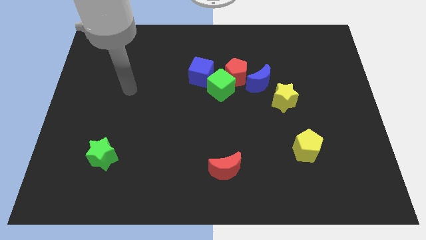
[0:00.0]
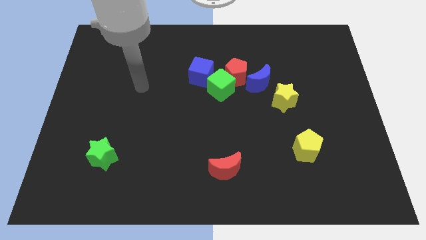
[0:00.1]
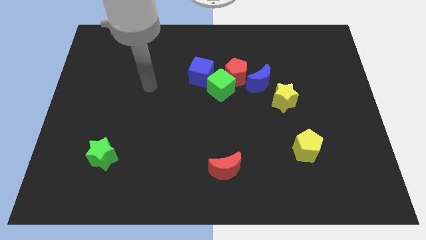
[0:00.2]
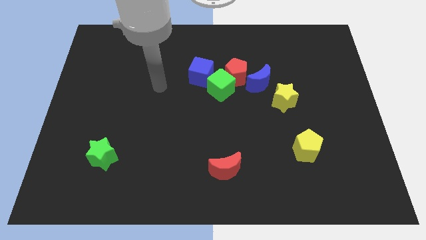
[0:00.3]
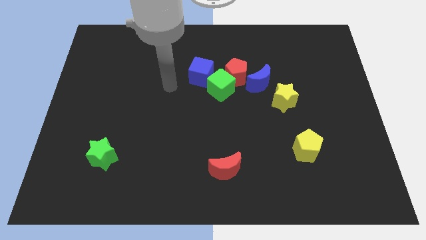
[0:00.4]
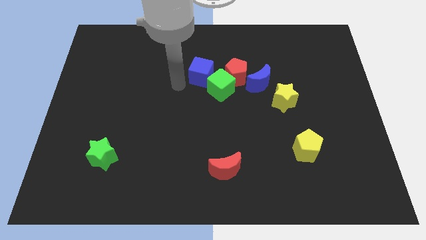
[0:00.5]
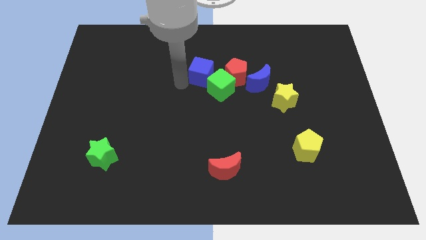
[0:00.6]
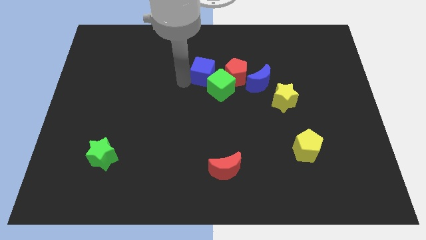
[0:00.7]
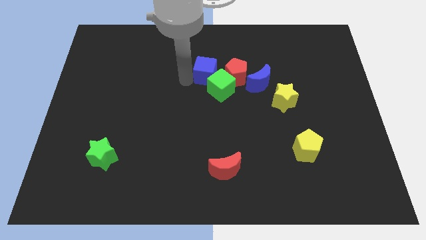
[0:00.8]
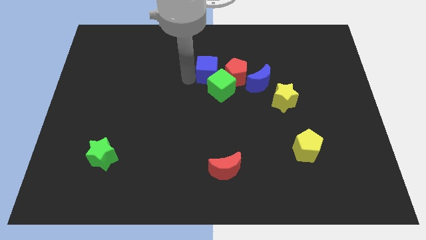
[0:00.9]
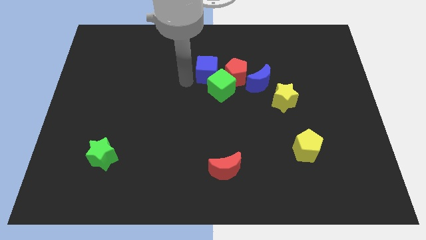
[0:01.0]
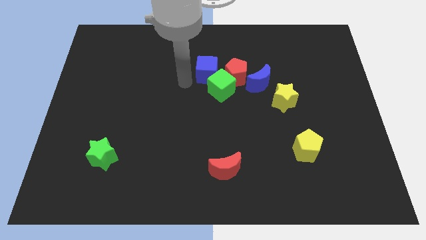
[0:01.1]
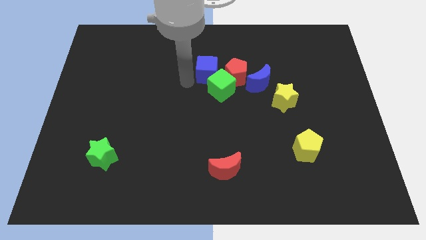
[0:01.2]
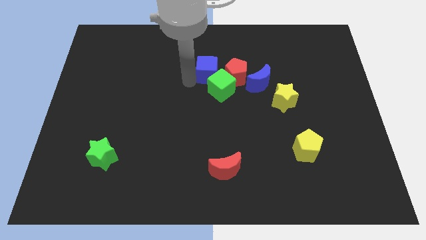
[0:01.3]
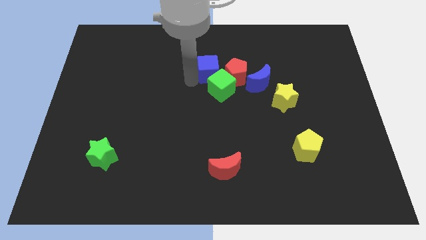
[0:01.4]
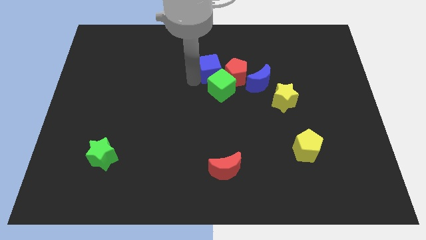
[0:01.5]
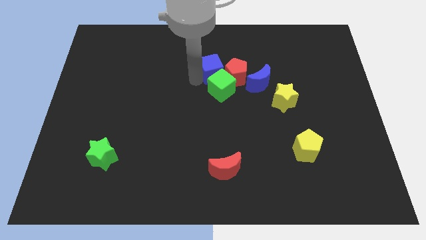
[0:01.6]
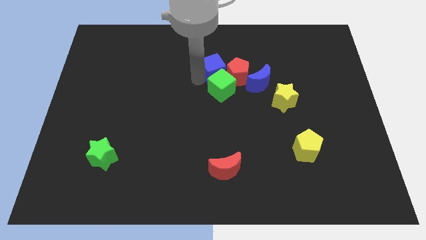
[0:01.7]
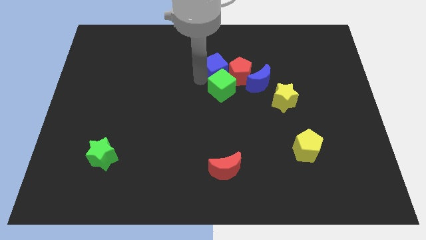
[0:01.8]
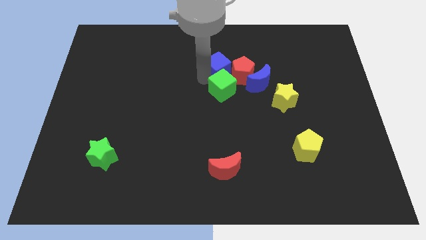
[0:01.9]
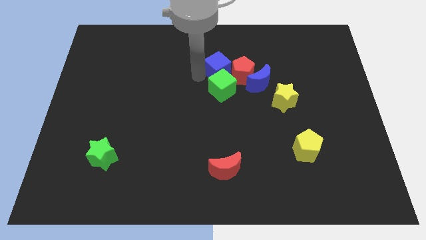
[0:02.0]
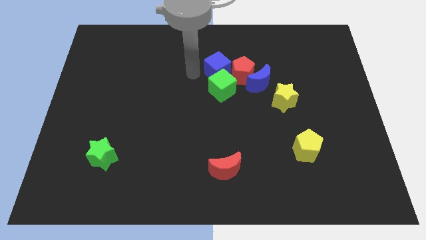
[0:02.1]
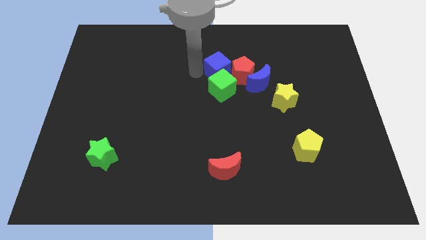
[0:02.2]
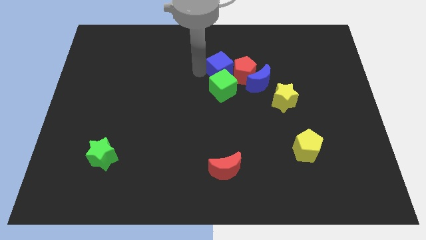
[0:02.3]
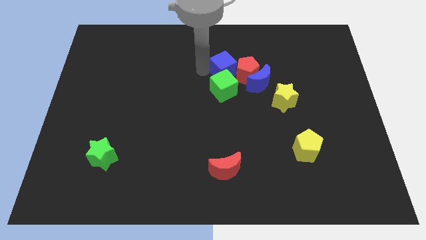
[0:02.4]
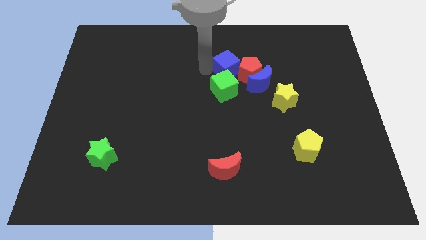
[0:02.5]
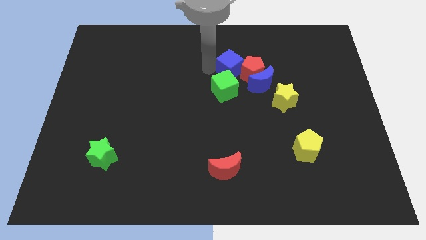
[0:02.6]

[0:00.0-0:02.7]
push the blue cube to the right a bit

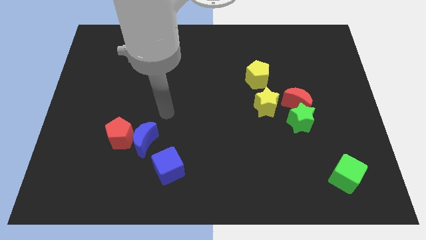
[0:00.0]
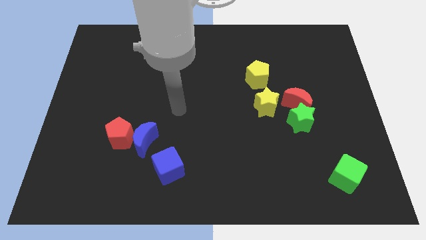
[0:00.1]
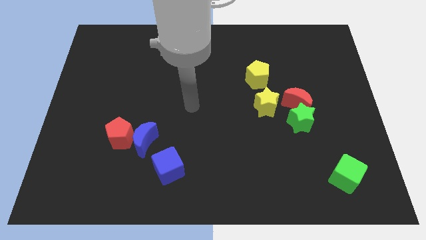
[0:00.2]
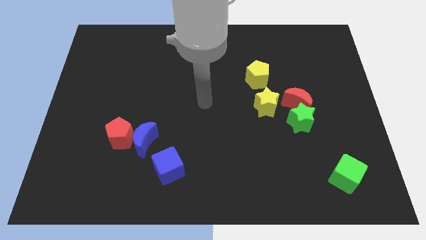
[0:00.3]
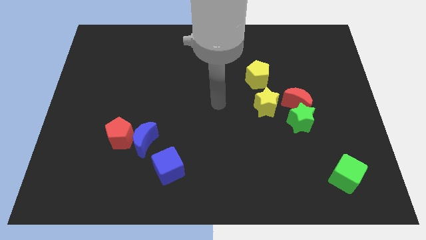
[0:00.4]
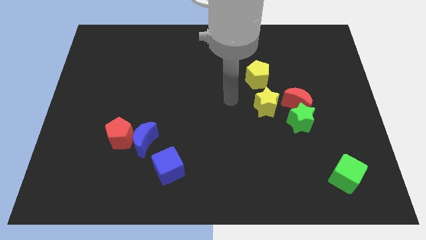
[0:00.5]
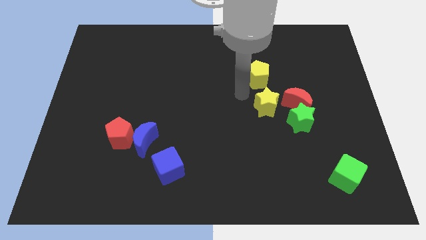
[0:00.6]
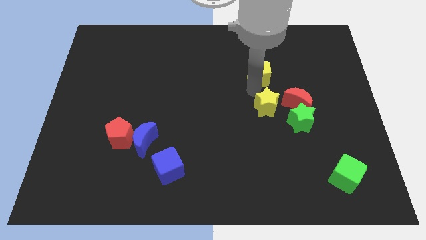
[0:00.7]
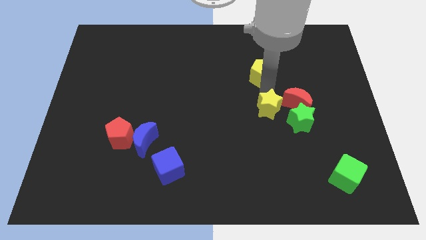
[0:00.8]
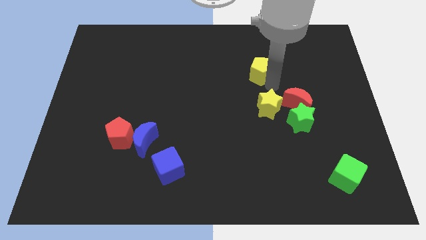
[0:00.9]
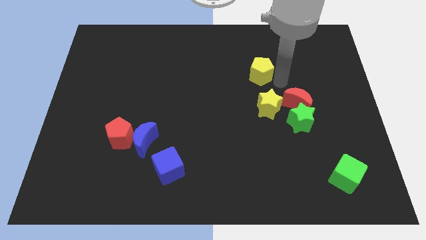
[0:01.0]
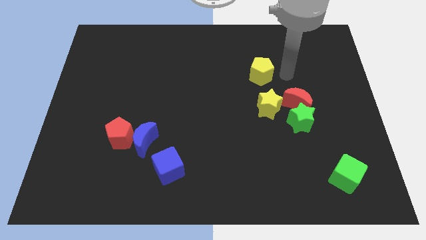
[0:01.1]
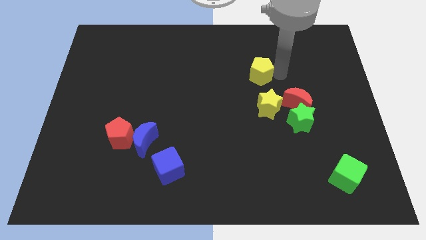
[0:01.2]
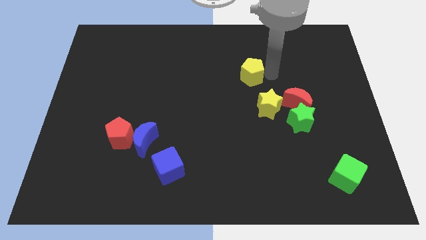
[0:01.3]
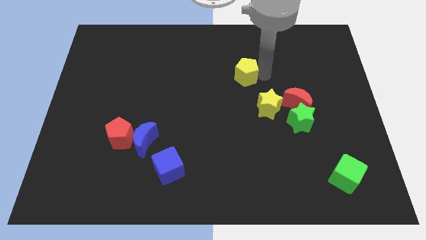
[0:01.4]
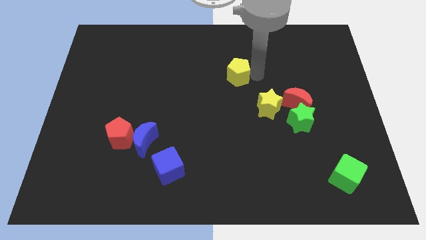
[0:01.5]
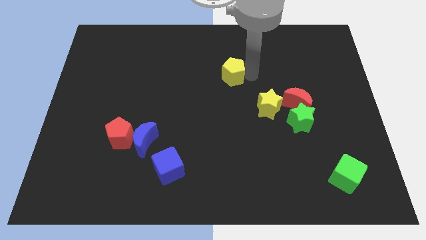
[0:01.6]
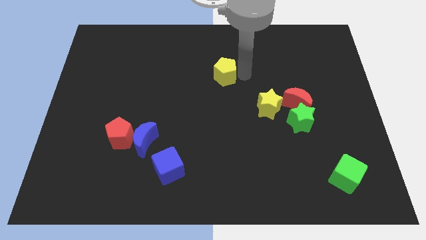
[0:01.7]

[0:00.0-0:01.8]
move the yellow pentagon to the left a little

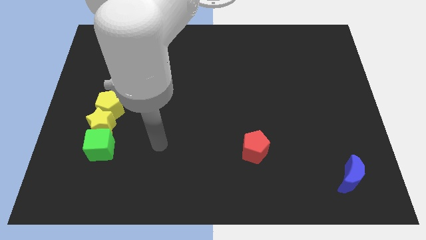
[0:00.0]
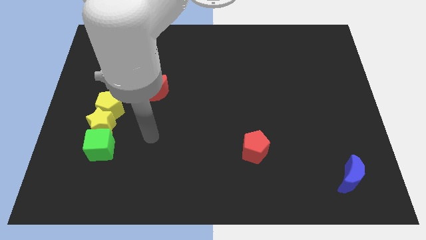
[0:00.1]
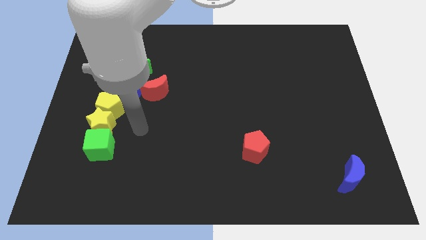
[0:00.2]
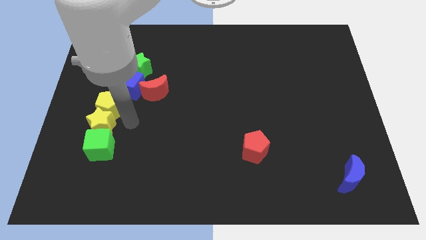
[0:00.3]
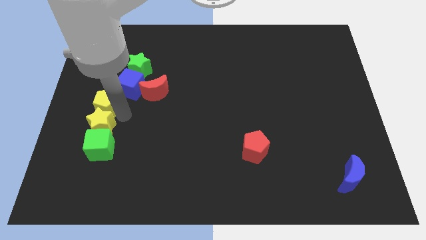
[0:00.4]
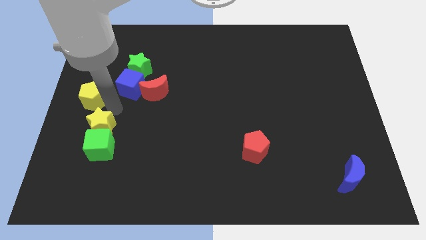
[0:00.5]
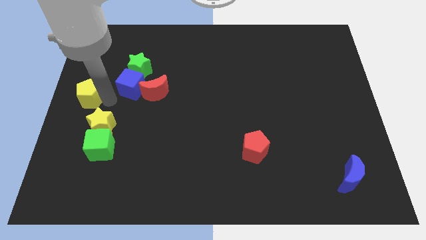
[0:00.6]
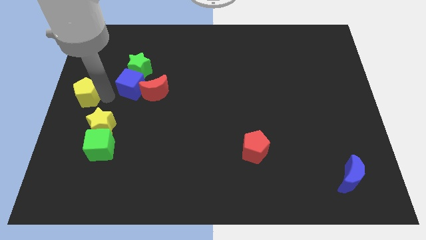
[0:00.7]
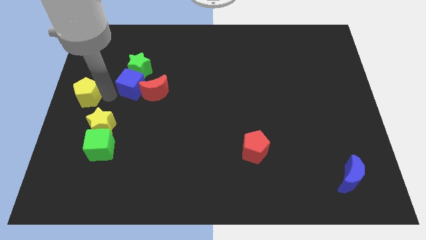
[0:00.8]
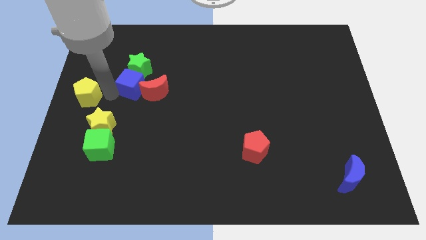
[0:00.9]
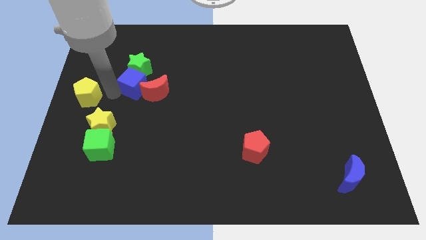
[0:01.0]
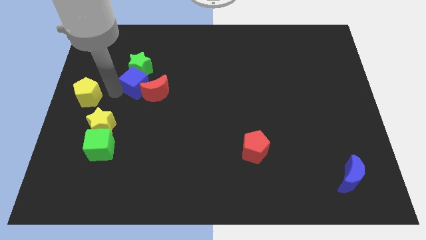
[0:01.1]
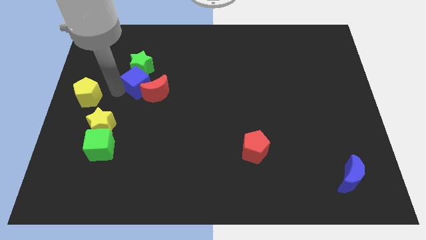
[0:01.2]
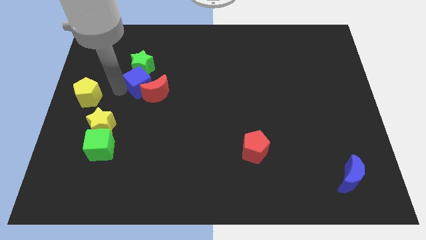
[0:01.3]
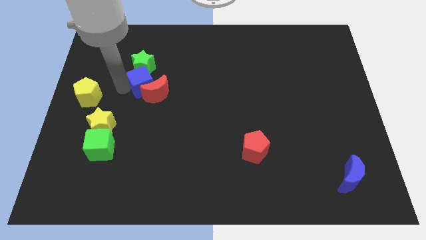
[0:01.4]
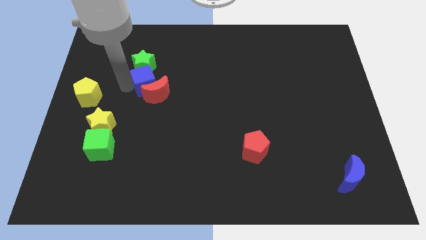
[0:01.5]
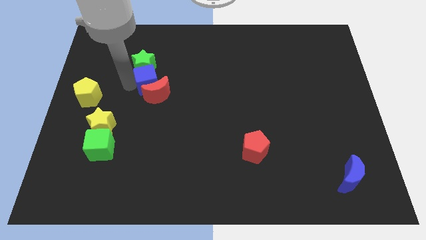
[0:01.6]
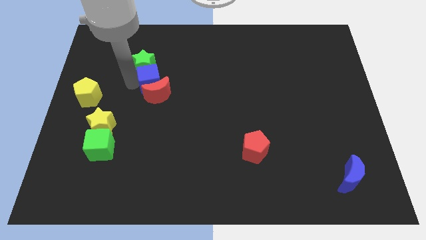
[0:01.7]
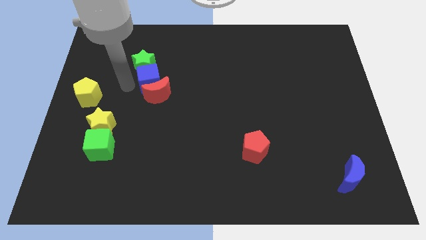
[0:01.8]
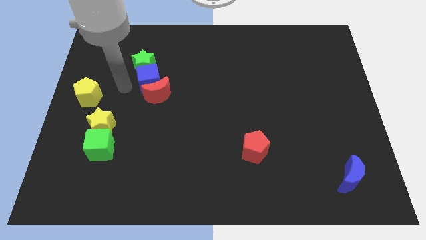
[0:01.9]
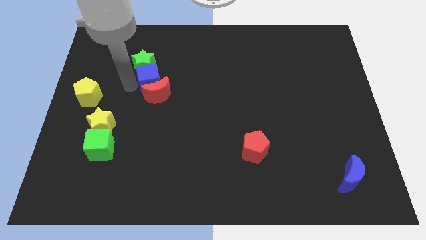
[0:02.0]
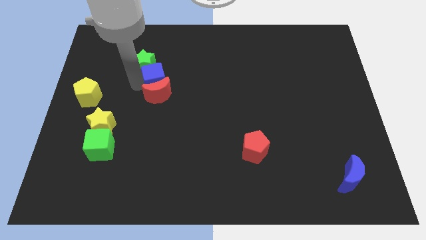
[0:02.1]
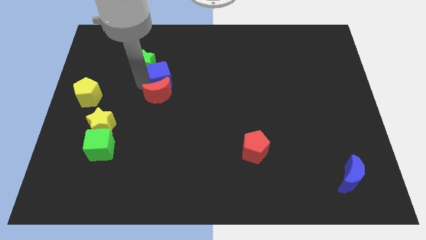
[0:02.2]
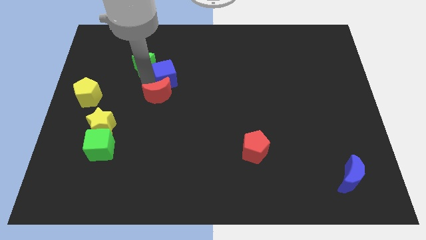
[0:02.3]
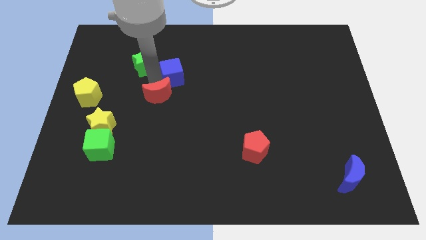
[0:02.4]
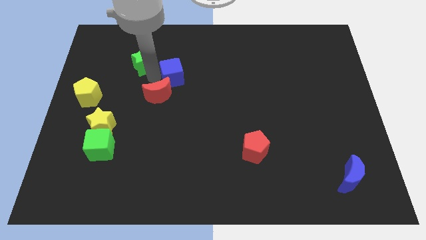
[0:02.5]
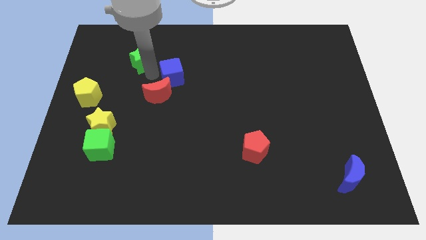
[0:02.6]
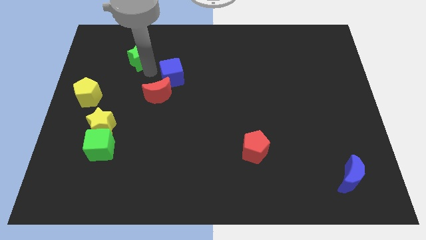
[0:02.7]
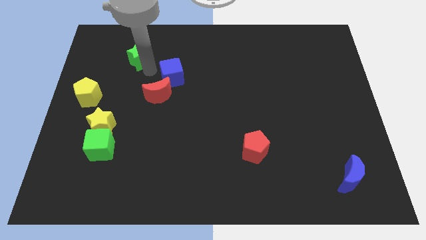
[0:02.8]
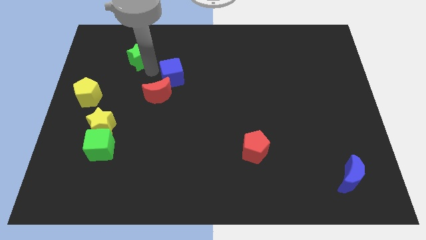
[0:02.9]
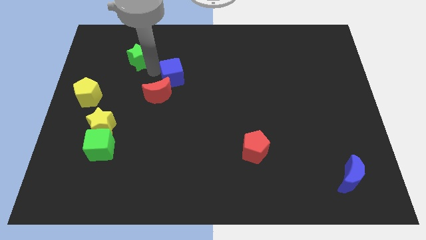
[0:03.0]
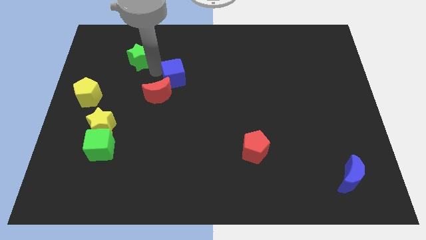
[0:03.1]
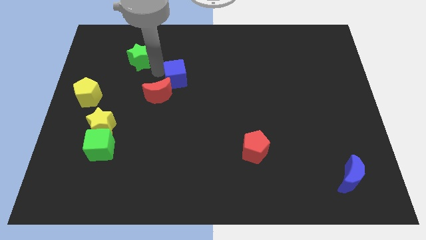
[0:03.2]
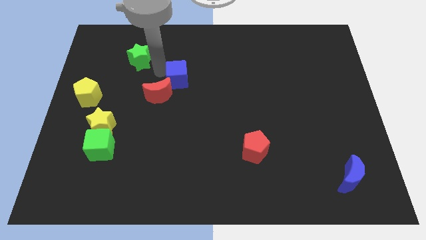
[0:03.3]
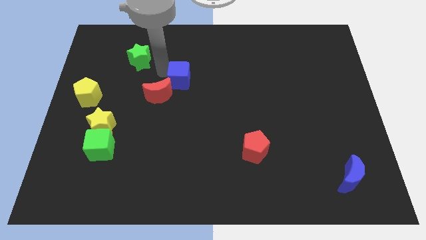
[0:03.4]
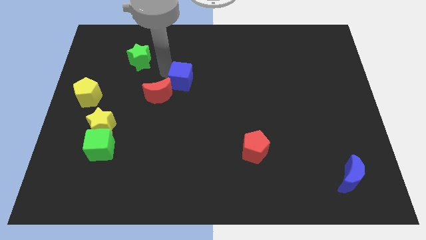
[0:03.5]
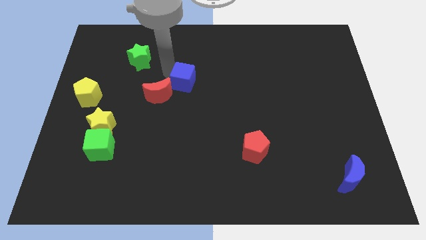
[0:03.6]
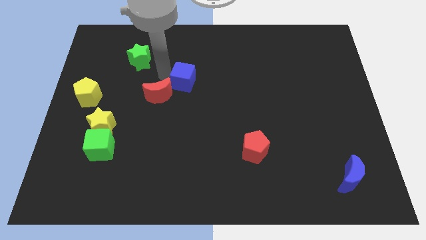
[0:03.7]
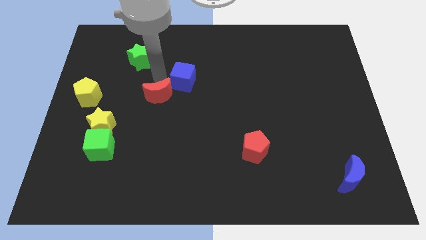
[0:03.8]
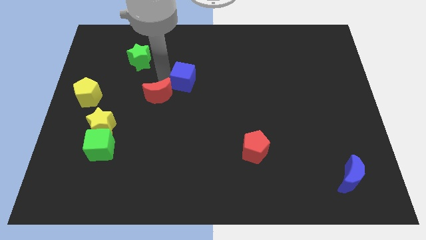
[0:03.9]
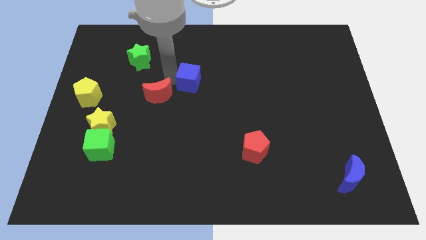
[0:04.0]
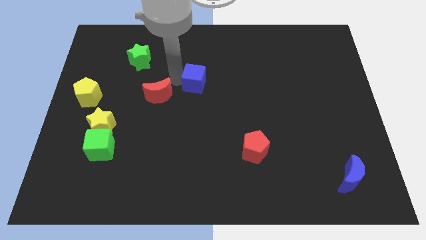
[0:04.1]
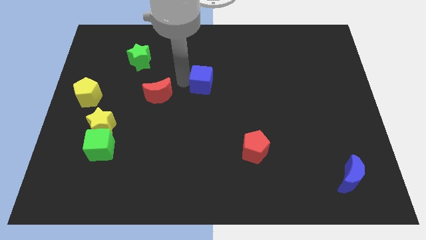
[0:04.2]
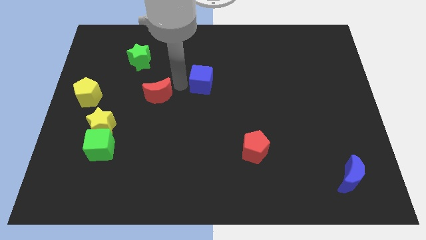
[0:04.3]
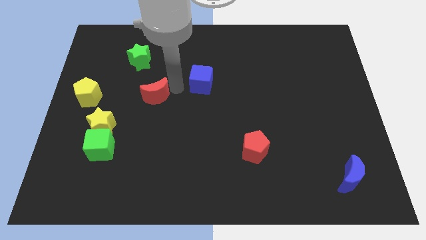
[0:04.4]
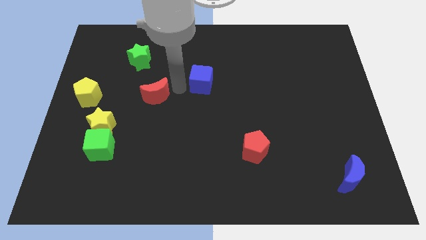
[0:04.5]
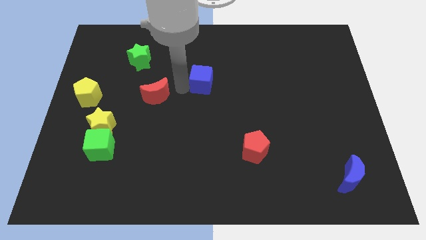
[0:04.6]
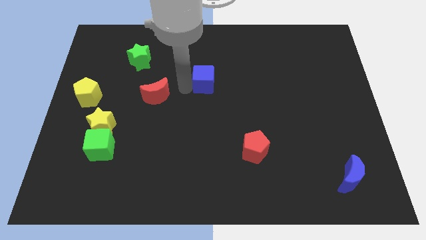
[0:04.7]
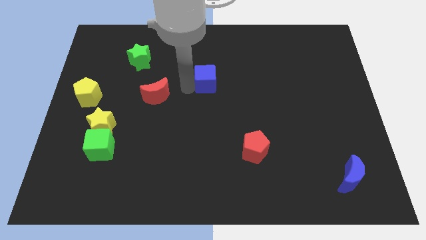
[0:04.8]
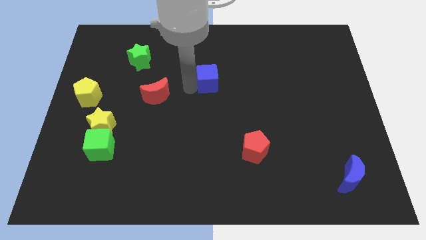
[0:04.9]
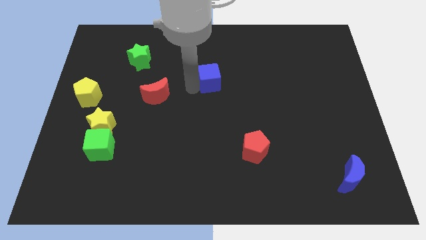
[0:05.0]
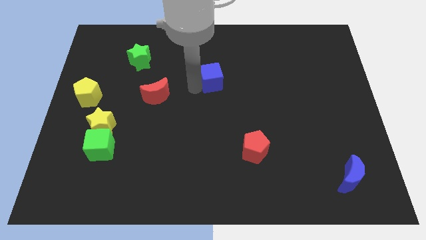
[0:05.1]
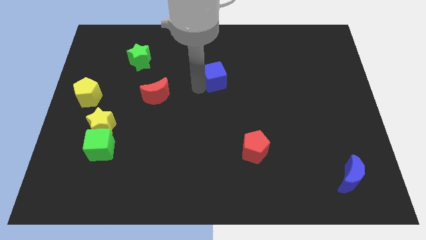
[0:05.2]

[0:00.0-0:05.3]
move the blue cube right
